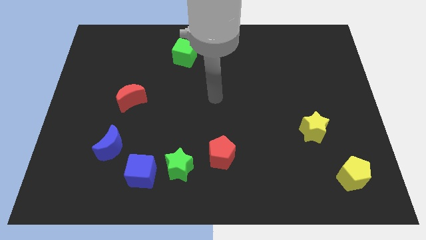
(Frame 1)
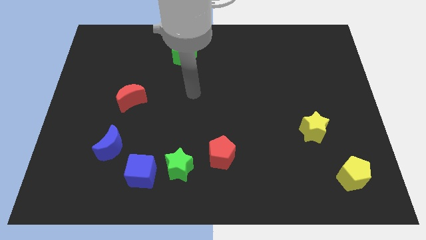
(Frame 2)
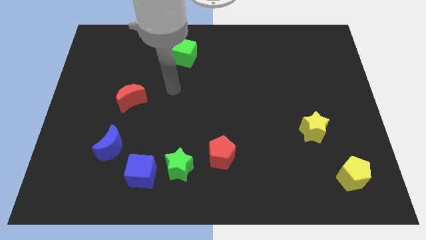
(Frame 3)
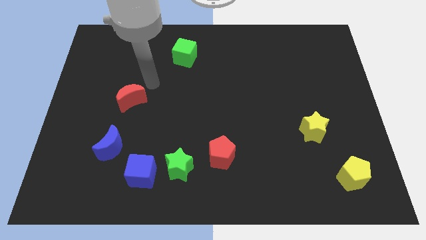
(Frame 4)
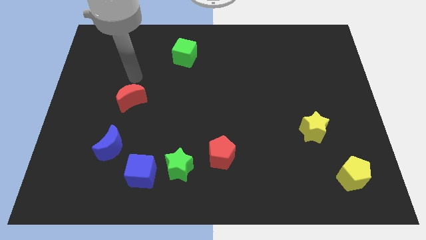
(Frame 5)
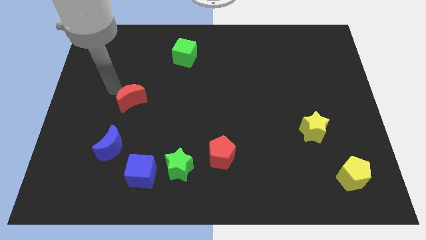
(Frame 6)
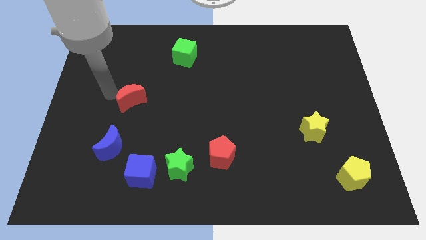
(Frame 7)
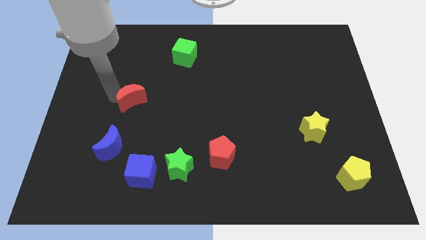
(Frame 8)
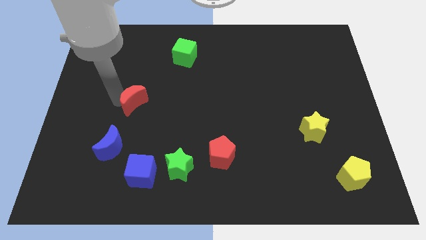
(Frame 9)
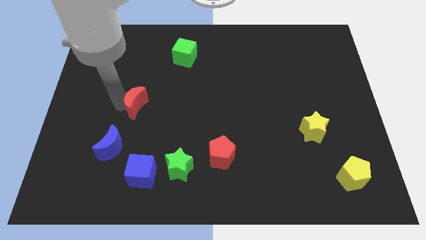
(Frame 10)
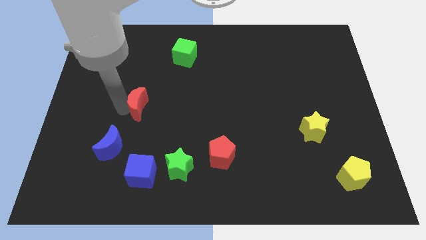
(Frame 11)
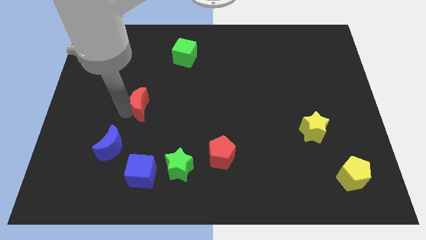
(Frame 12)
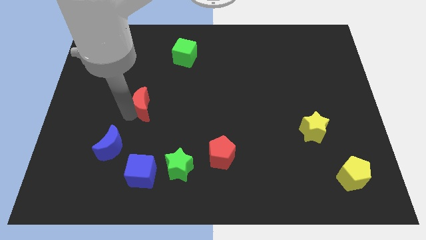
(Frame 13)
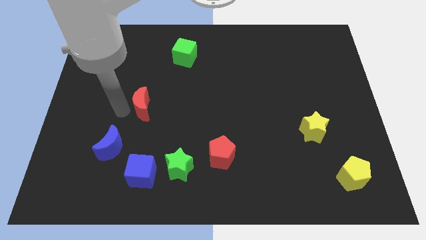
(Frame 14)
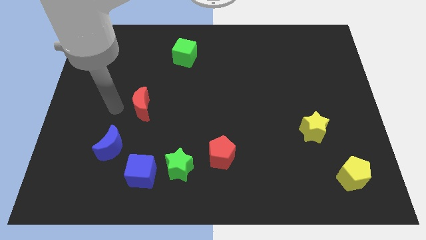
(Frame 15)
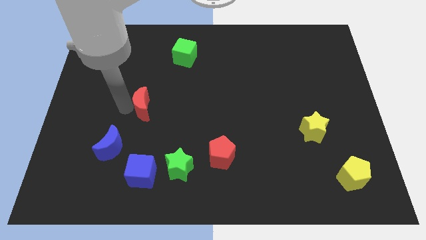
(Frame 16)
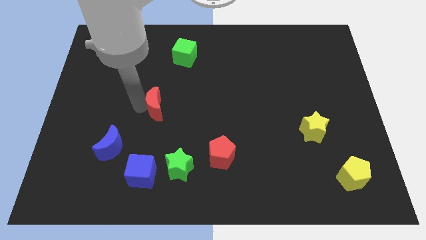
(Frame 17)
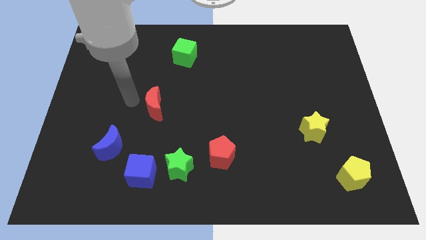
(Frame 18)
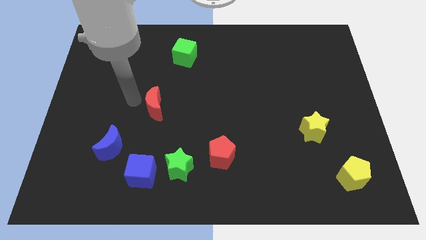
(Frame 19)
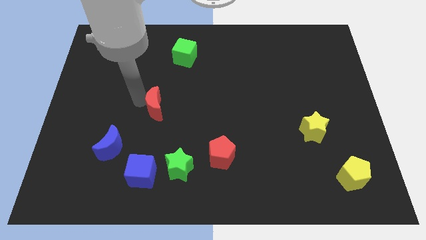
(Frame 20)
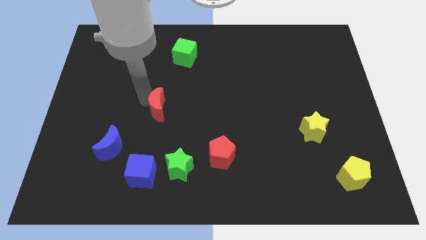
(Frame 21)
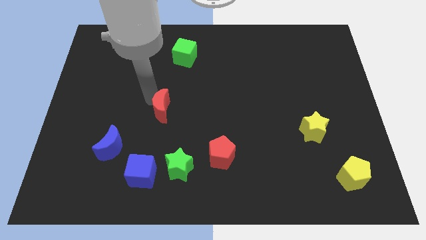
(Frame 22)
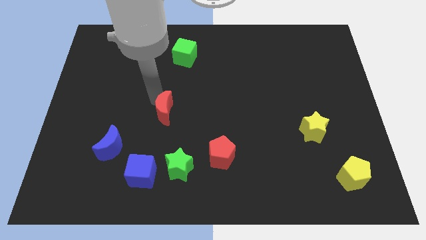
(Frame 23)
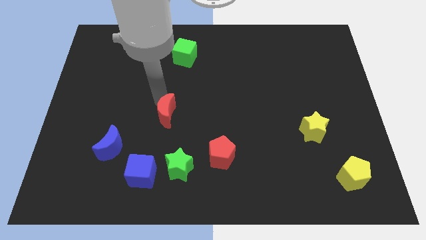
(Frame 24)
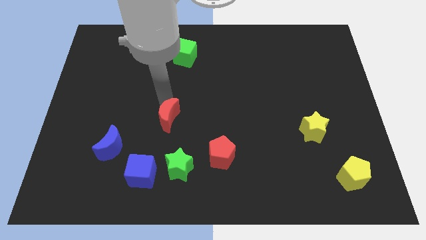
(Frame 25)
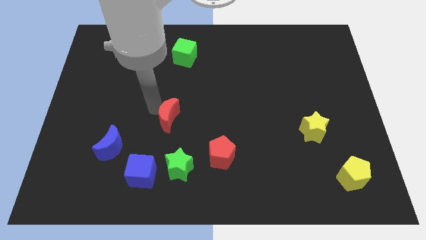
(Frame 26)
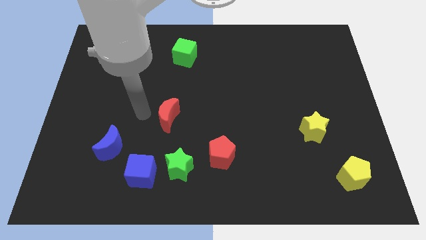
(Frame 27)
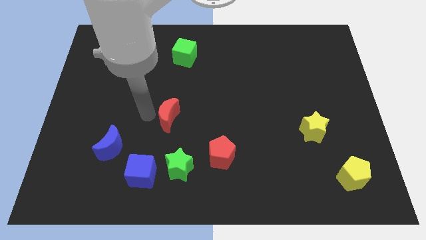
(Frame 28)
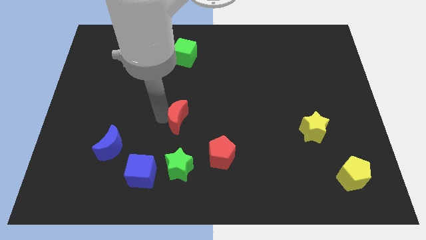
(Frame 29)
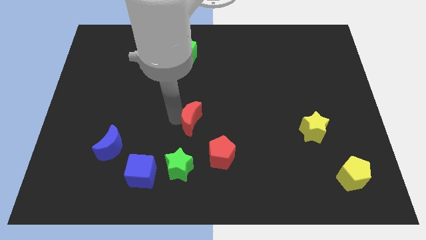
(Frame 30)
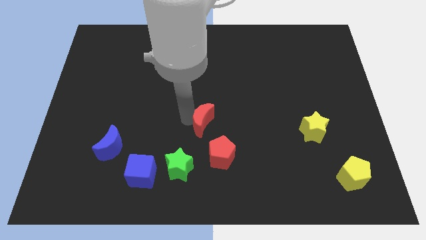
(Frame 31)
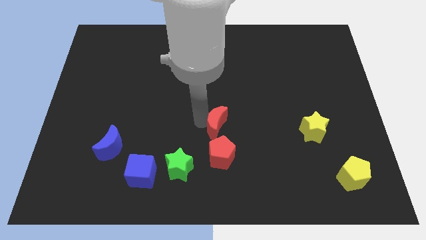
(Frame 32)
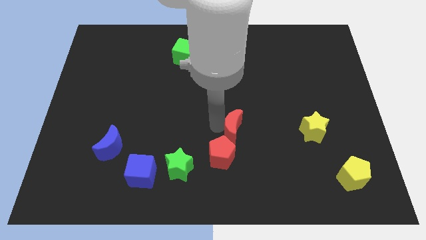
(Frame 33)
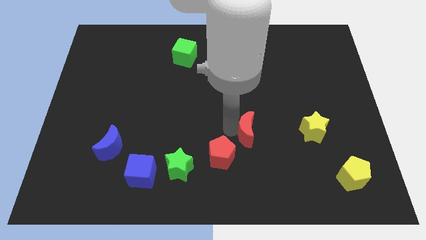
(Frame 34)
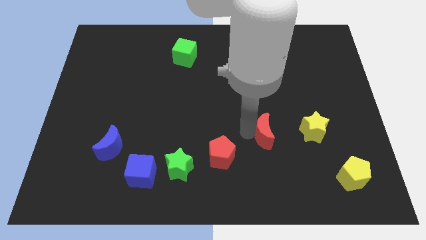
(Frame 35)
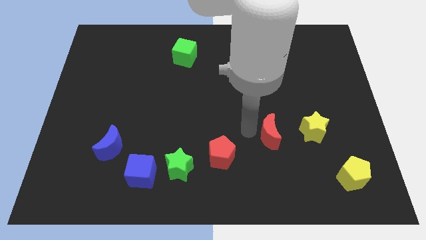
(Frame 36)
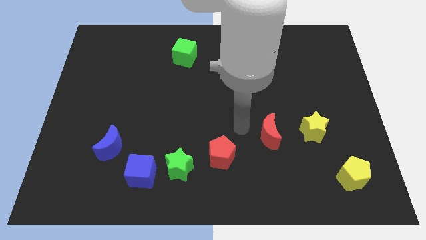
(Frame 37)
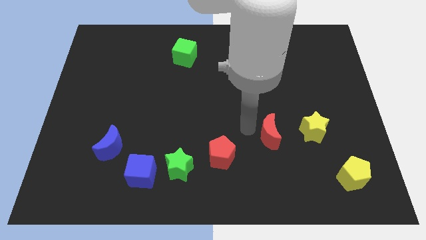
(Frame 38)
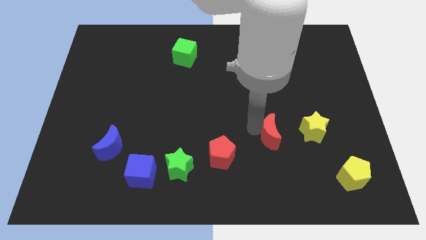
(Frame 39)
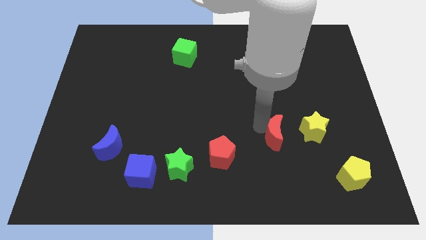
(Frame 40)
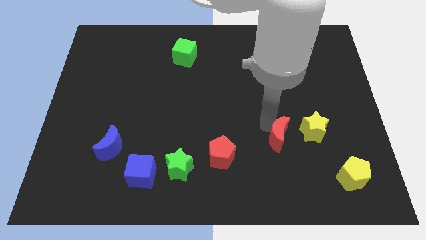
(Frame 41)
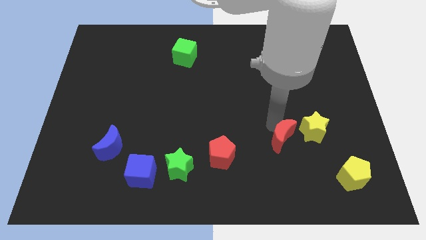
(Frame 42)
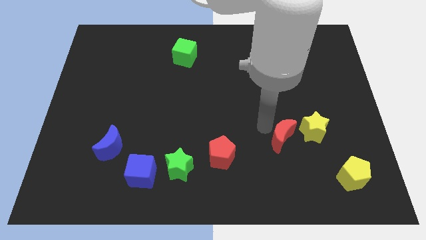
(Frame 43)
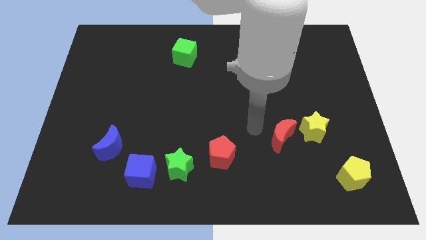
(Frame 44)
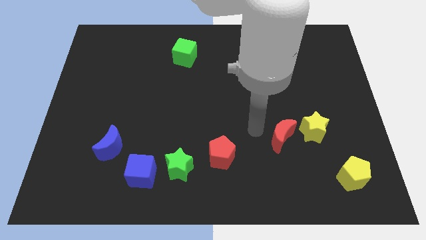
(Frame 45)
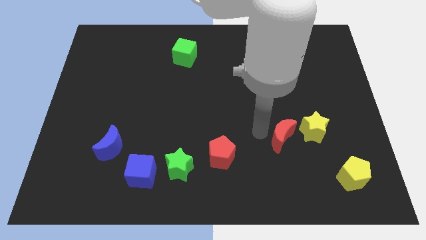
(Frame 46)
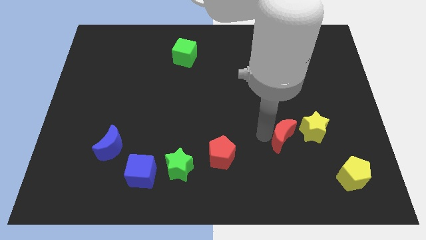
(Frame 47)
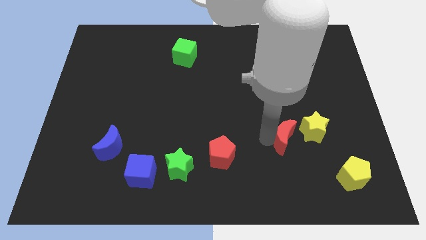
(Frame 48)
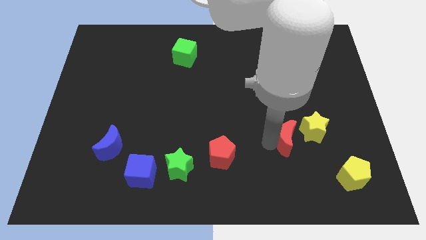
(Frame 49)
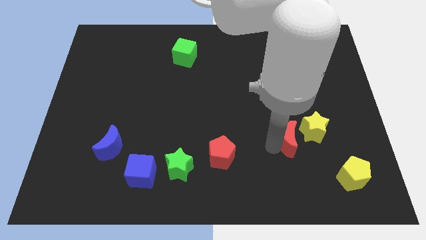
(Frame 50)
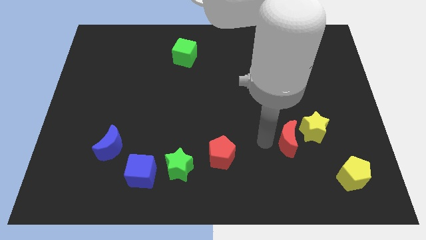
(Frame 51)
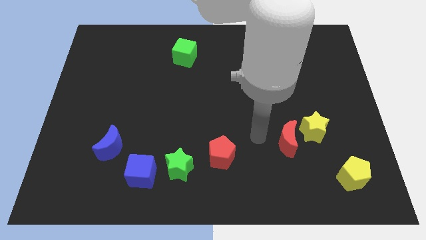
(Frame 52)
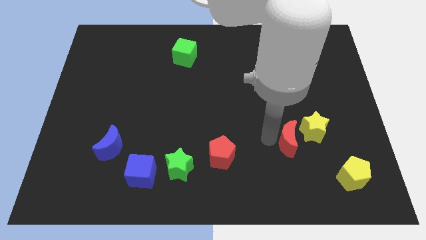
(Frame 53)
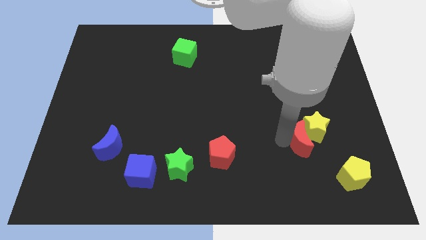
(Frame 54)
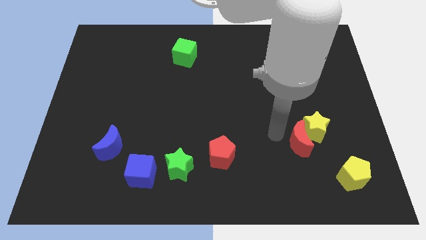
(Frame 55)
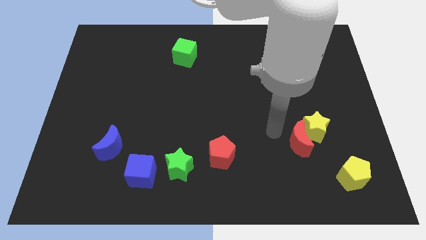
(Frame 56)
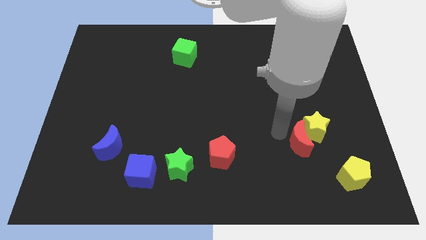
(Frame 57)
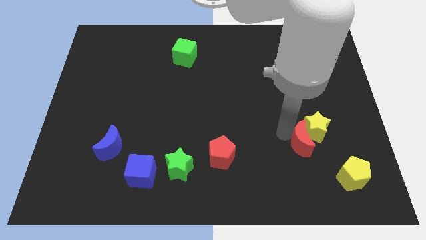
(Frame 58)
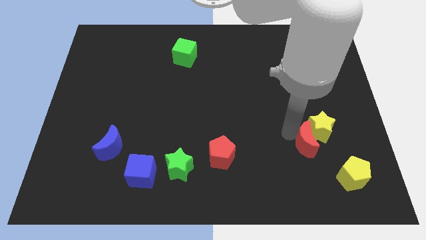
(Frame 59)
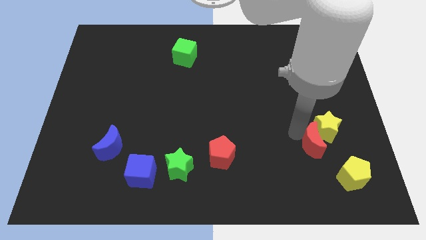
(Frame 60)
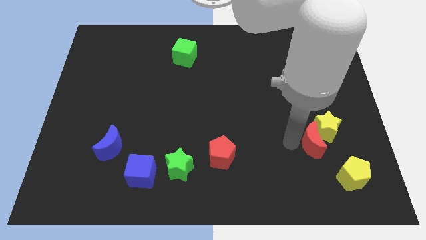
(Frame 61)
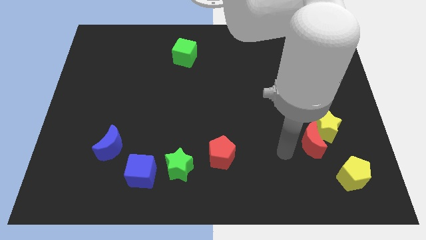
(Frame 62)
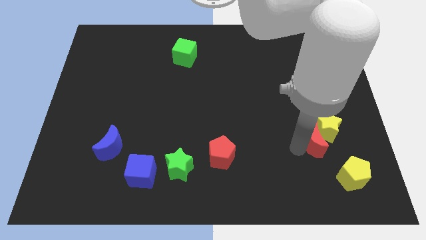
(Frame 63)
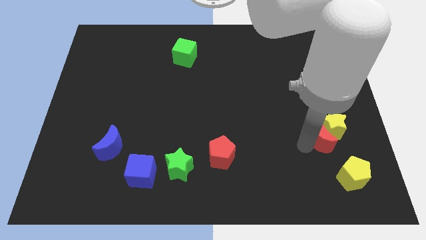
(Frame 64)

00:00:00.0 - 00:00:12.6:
slide the red moon above the yellow pentagon
